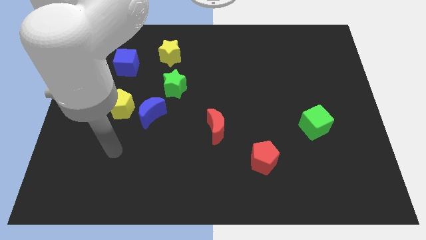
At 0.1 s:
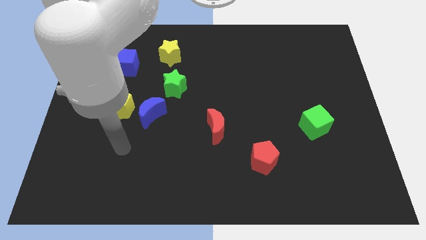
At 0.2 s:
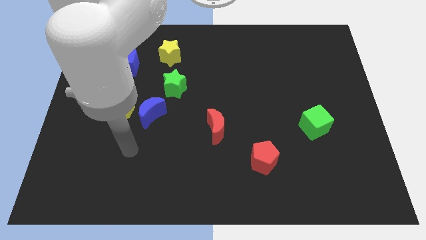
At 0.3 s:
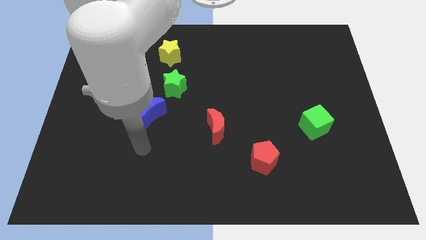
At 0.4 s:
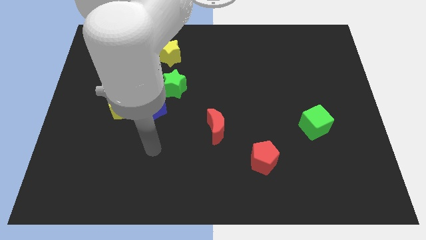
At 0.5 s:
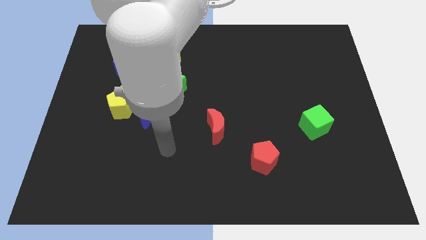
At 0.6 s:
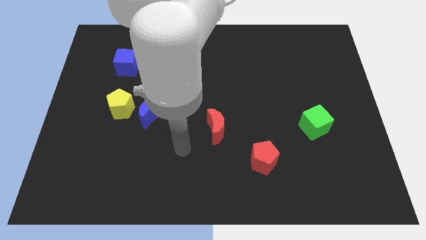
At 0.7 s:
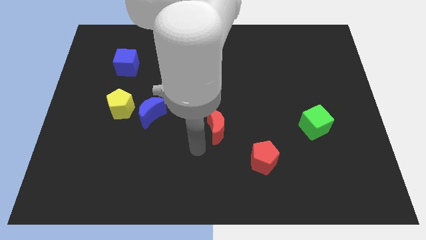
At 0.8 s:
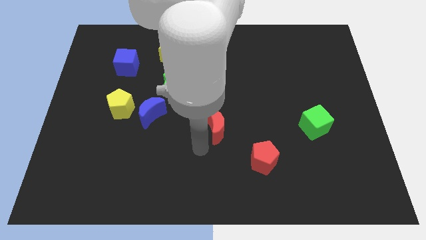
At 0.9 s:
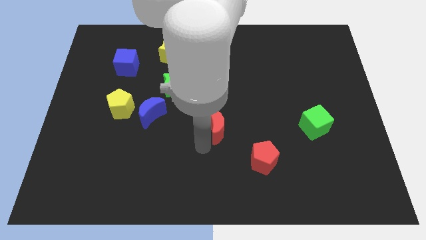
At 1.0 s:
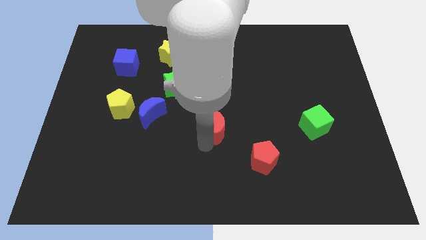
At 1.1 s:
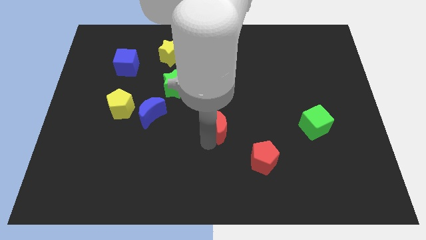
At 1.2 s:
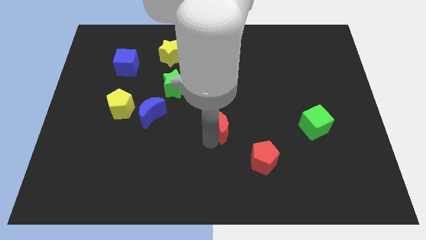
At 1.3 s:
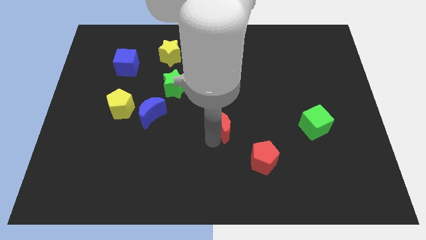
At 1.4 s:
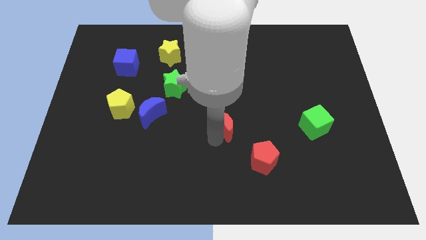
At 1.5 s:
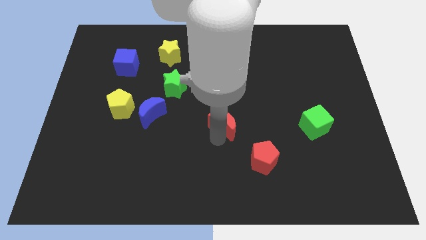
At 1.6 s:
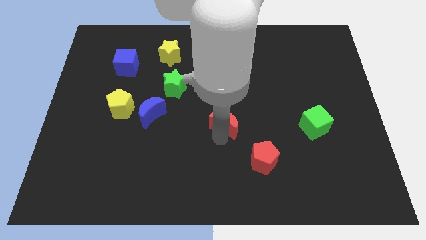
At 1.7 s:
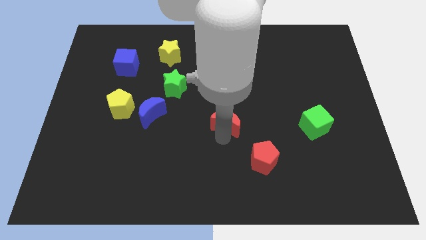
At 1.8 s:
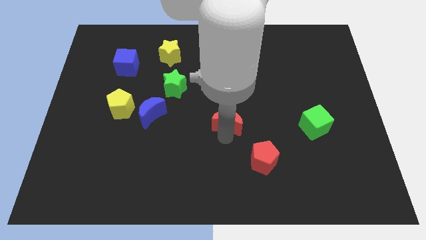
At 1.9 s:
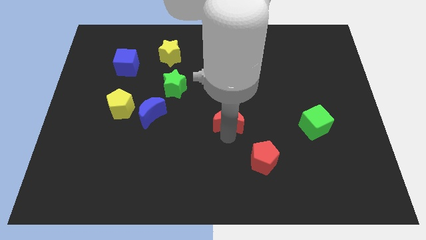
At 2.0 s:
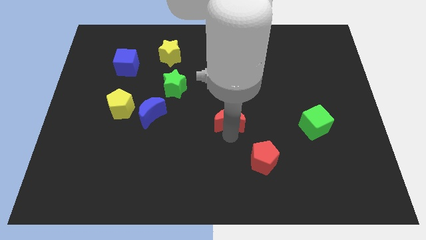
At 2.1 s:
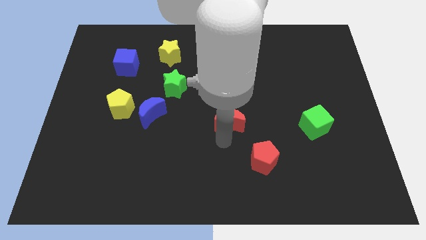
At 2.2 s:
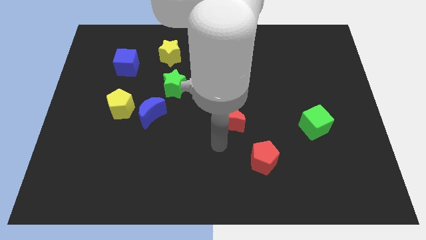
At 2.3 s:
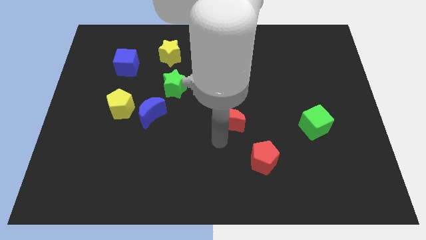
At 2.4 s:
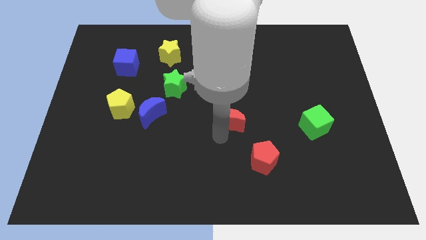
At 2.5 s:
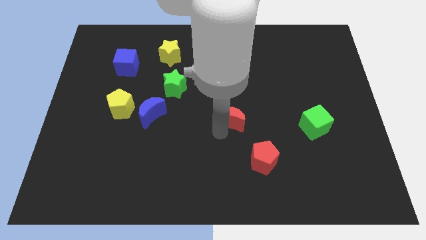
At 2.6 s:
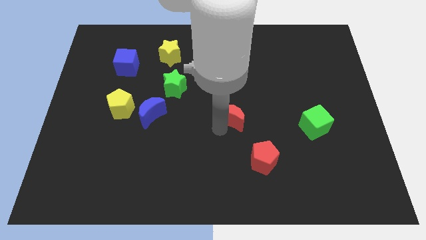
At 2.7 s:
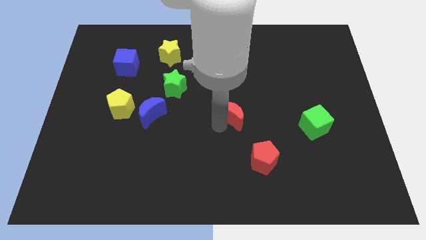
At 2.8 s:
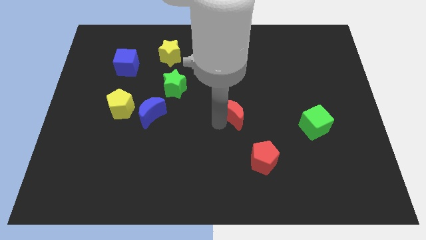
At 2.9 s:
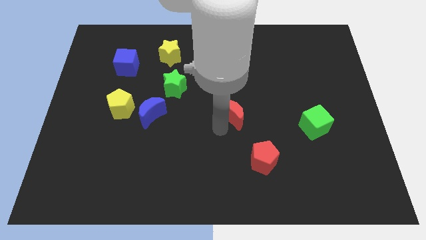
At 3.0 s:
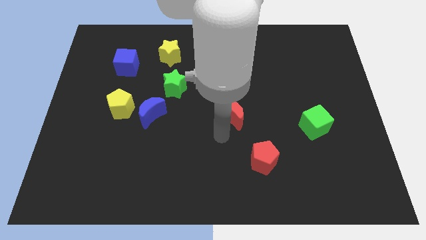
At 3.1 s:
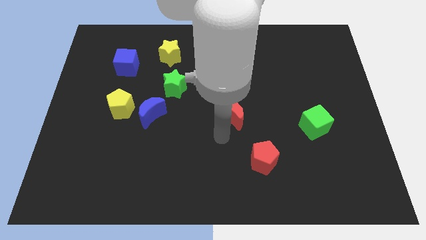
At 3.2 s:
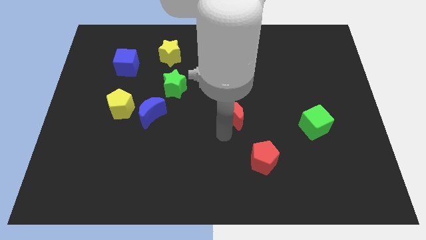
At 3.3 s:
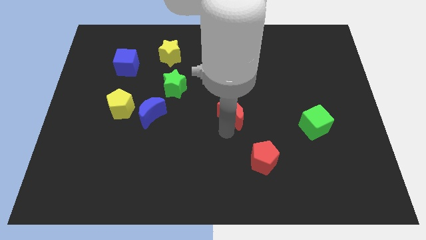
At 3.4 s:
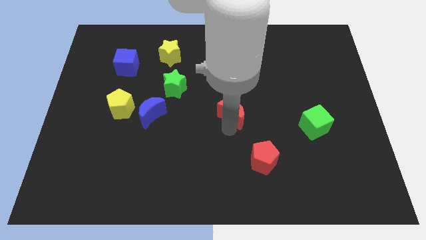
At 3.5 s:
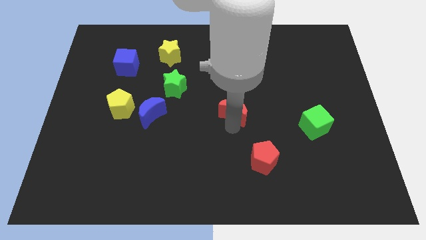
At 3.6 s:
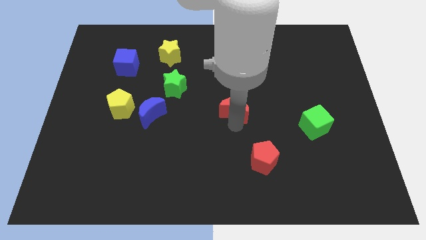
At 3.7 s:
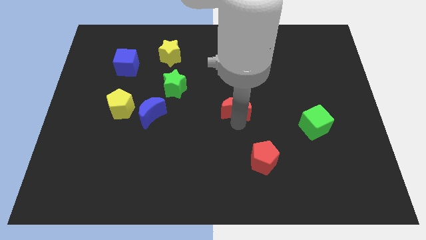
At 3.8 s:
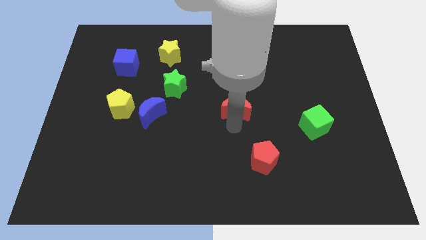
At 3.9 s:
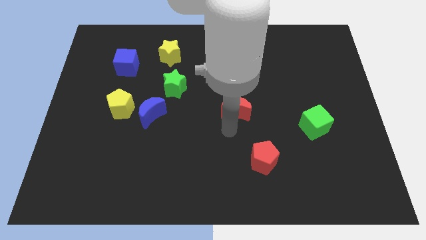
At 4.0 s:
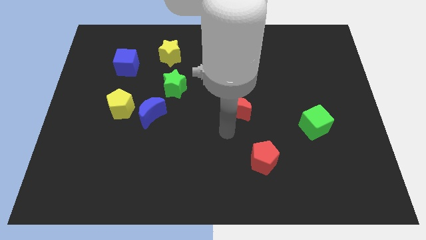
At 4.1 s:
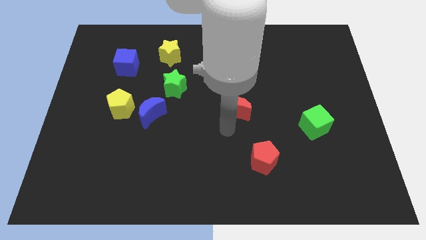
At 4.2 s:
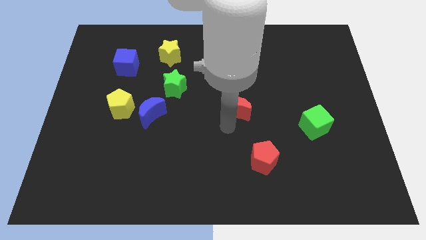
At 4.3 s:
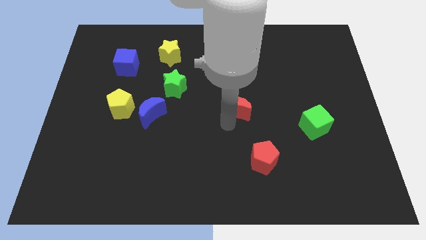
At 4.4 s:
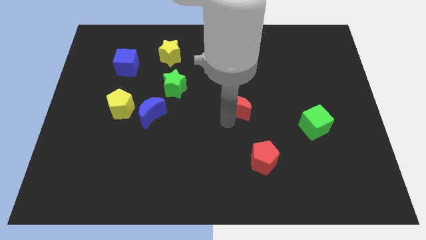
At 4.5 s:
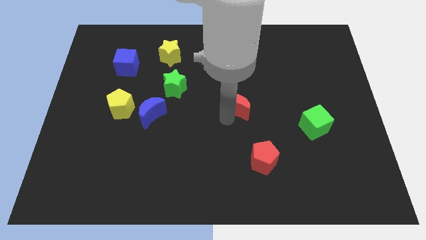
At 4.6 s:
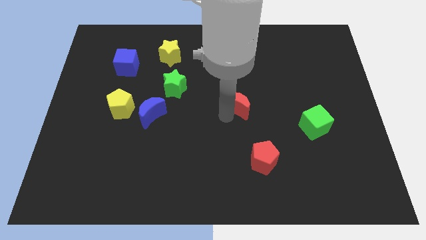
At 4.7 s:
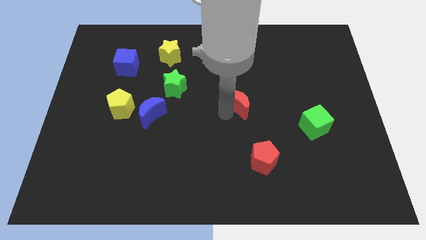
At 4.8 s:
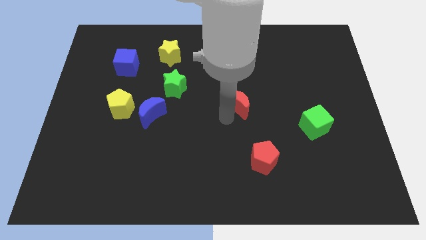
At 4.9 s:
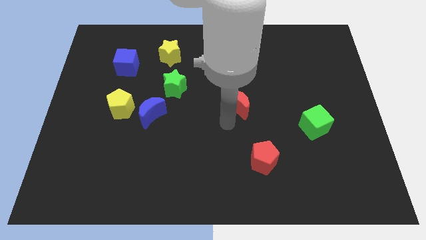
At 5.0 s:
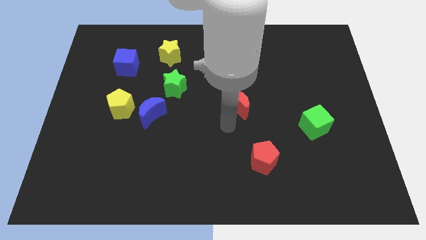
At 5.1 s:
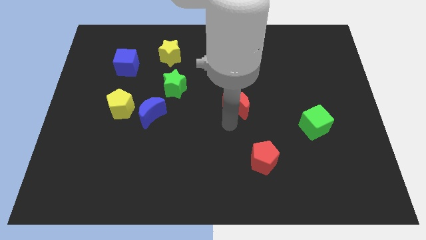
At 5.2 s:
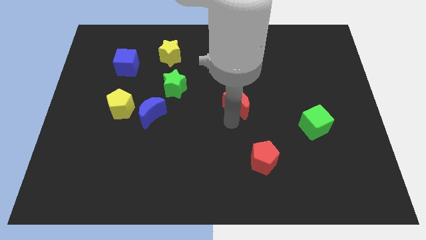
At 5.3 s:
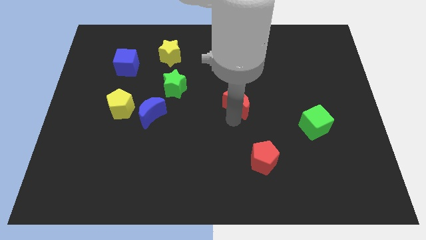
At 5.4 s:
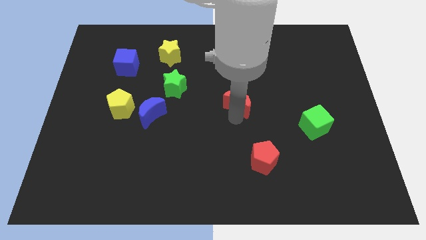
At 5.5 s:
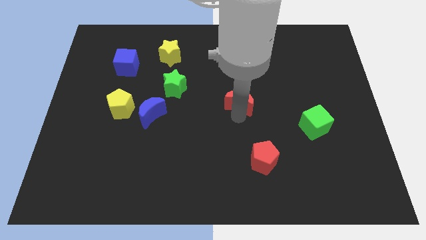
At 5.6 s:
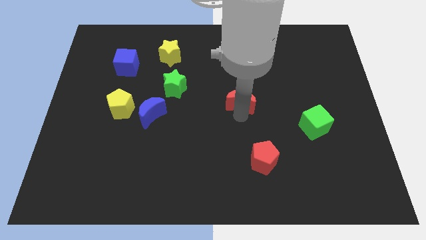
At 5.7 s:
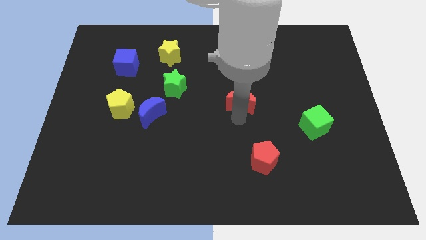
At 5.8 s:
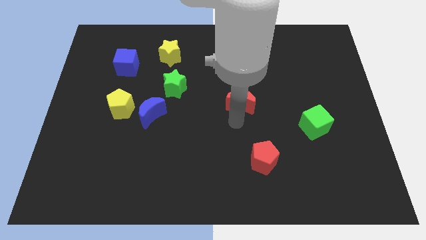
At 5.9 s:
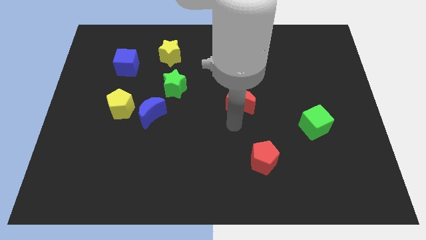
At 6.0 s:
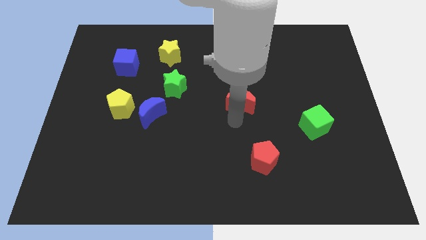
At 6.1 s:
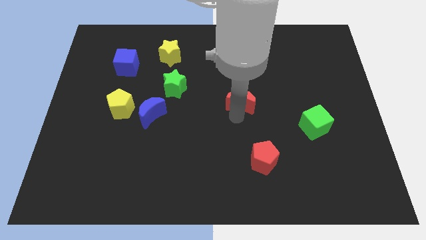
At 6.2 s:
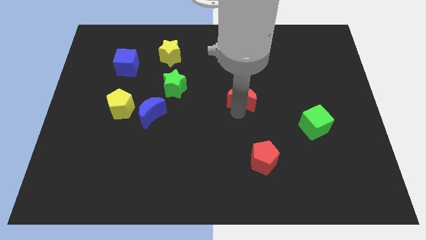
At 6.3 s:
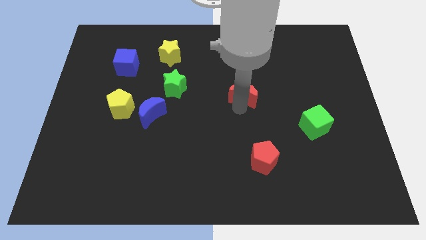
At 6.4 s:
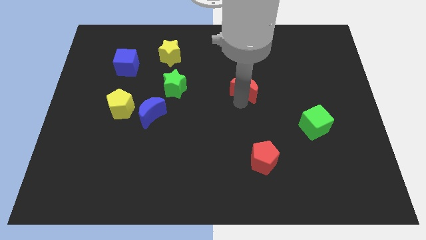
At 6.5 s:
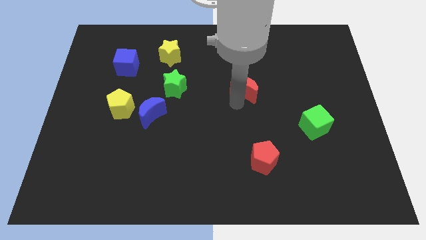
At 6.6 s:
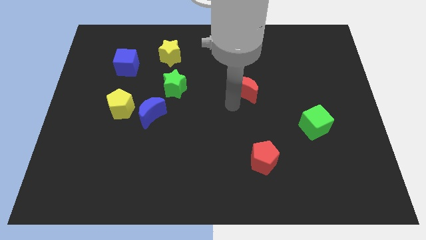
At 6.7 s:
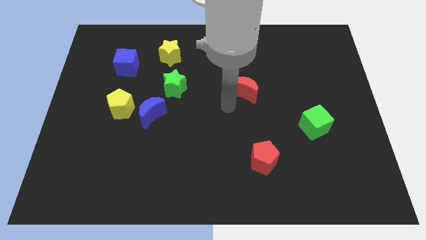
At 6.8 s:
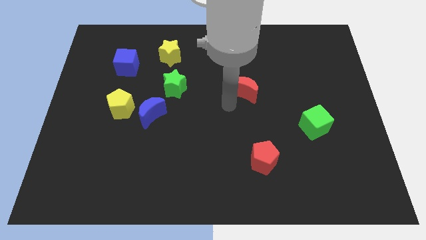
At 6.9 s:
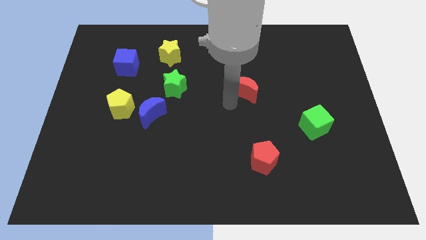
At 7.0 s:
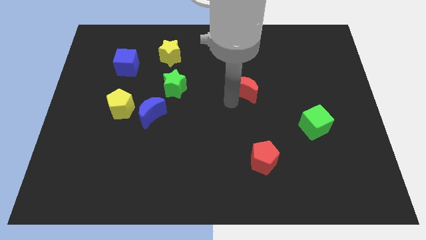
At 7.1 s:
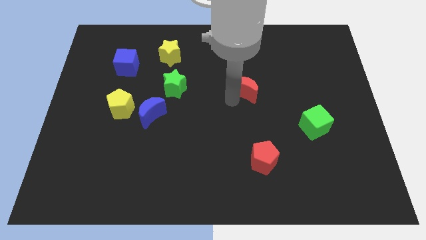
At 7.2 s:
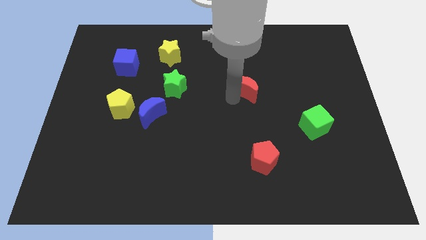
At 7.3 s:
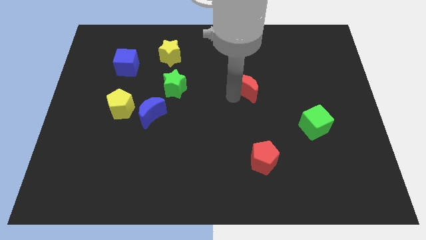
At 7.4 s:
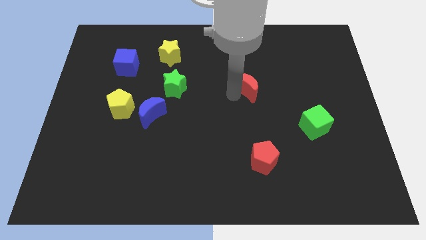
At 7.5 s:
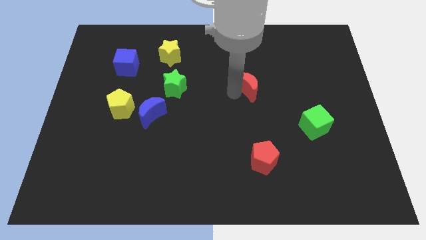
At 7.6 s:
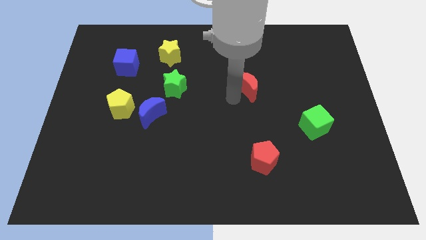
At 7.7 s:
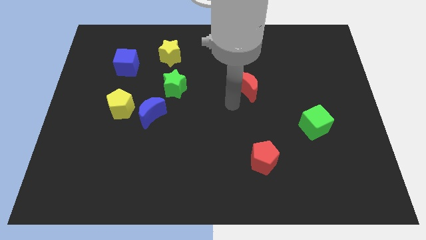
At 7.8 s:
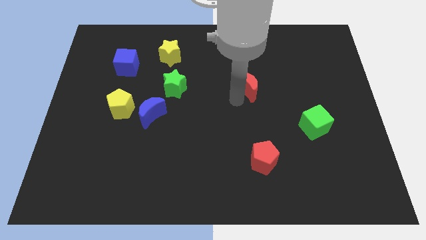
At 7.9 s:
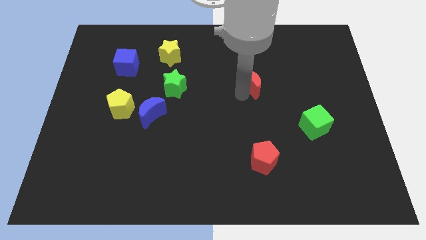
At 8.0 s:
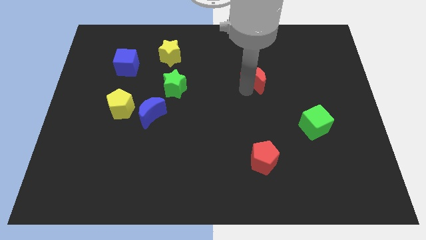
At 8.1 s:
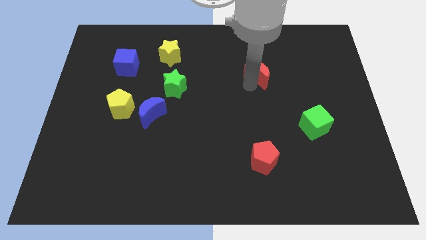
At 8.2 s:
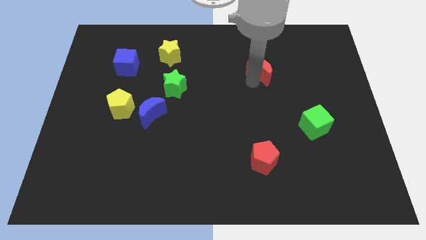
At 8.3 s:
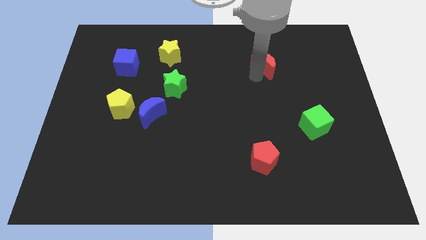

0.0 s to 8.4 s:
push the red moon upwards and to the right diagonally
